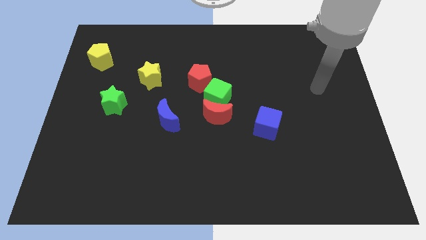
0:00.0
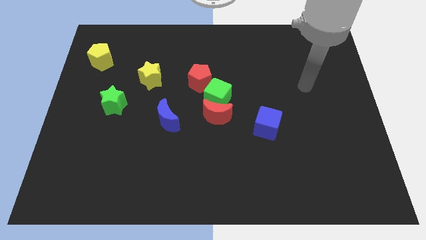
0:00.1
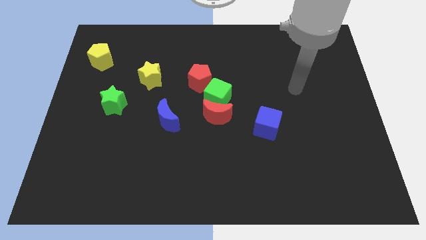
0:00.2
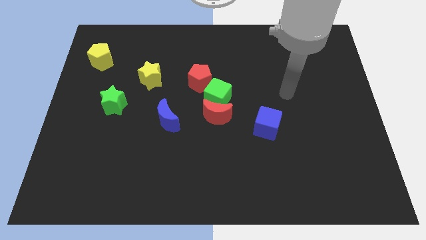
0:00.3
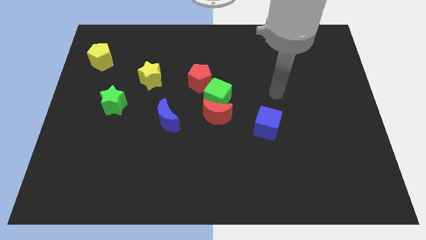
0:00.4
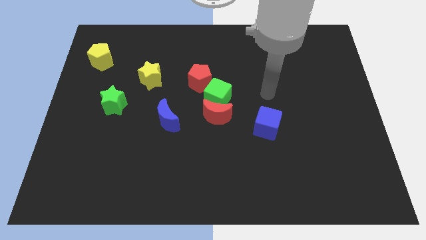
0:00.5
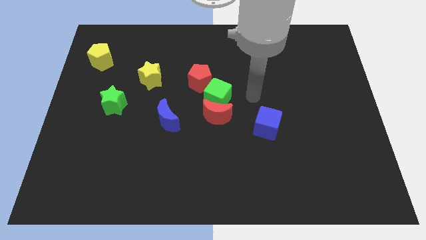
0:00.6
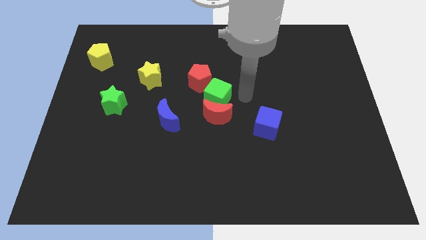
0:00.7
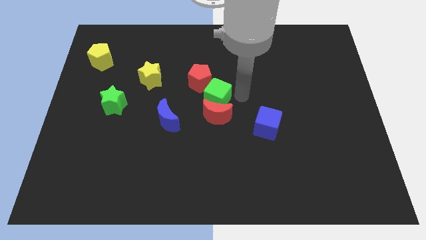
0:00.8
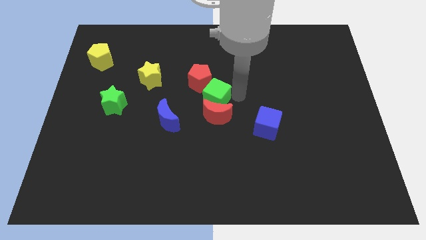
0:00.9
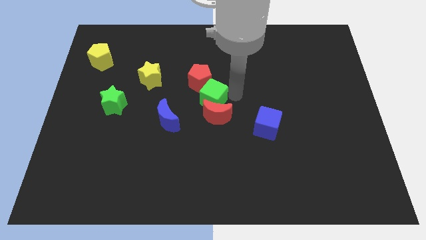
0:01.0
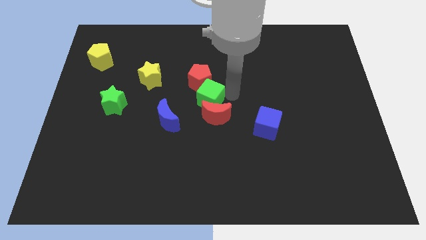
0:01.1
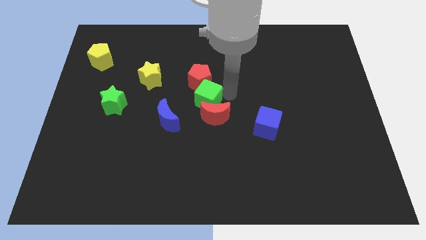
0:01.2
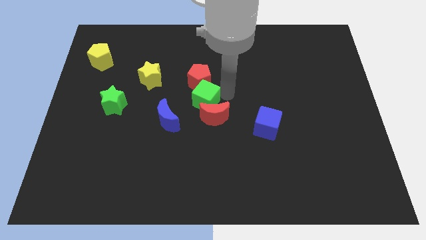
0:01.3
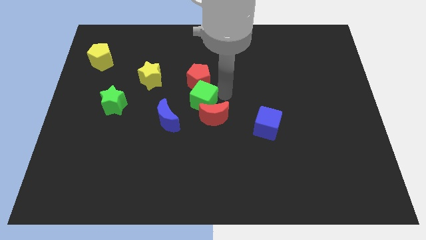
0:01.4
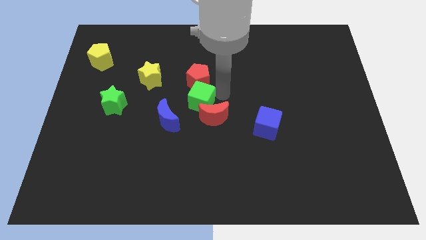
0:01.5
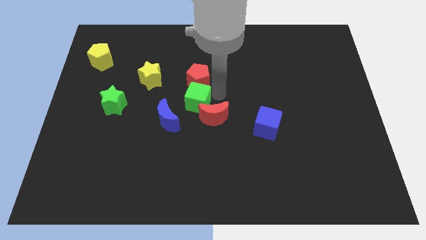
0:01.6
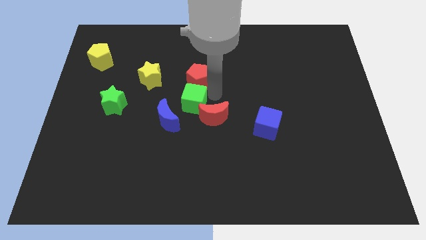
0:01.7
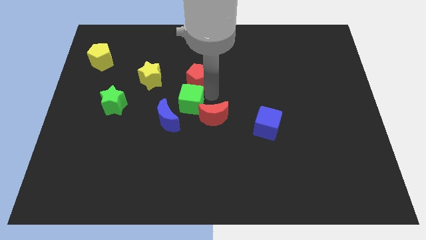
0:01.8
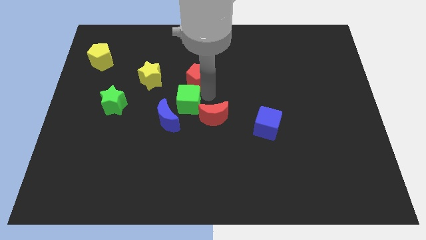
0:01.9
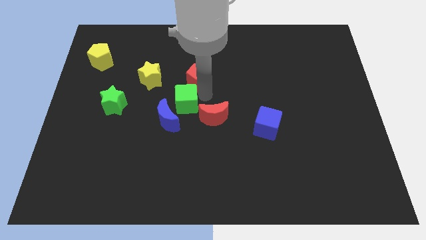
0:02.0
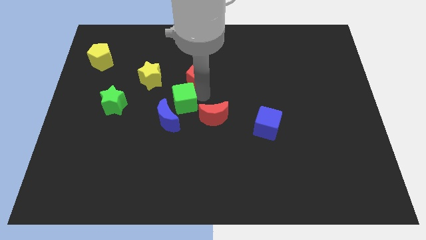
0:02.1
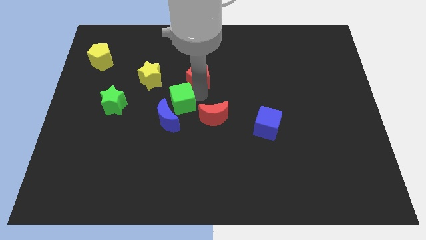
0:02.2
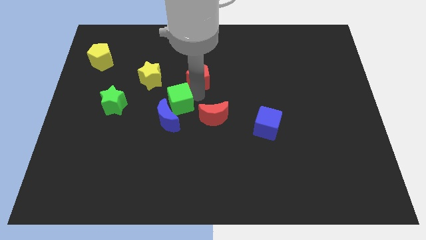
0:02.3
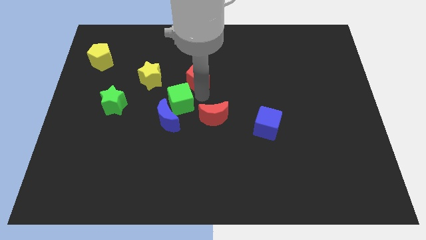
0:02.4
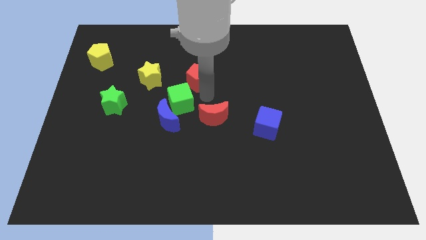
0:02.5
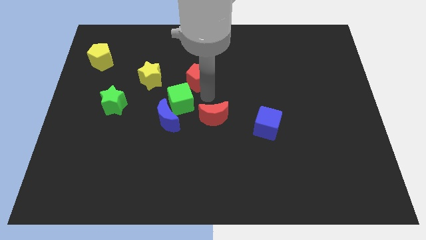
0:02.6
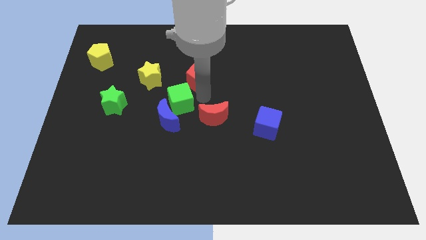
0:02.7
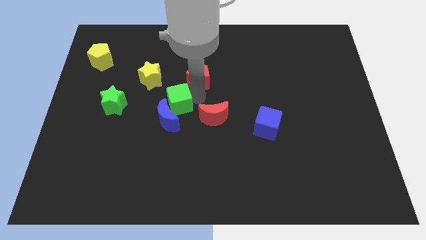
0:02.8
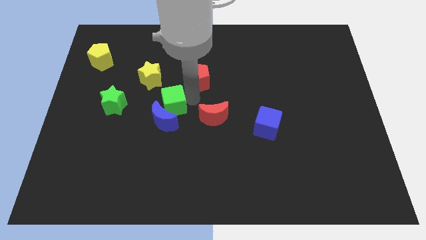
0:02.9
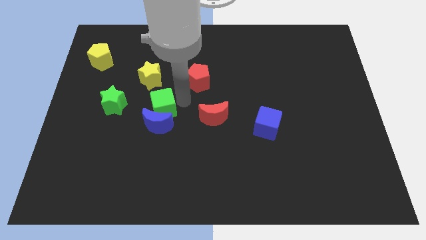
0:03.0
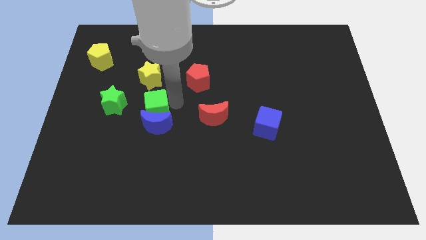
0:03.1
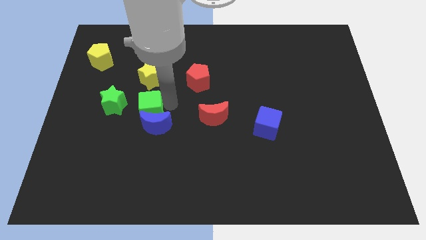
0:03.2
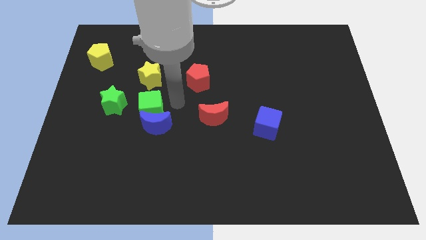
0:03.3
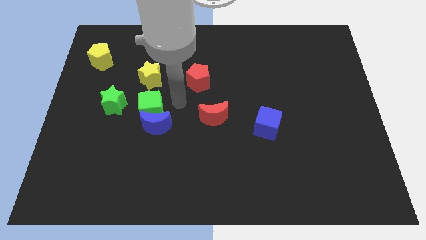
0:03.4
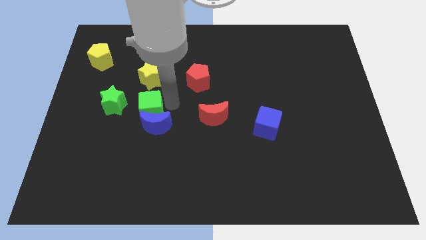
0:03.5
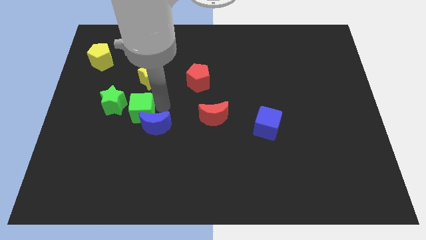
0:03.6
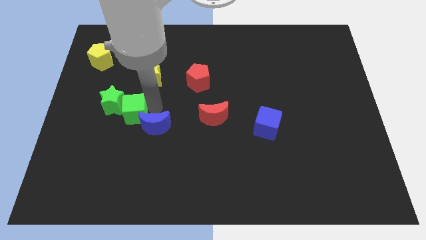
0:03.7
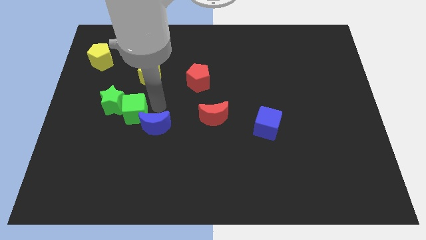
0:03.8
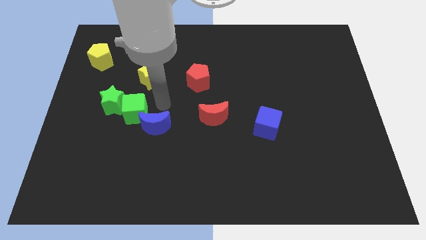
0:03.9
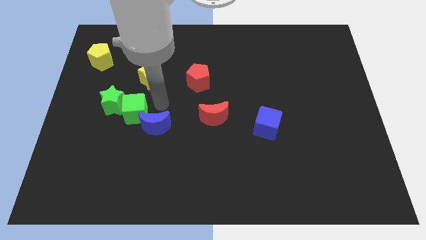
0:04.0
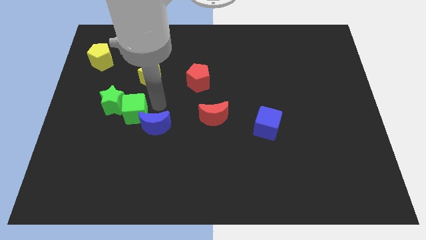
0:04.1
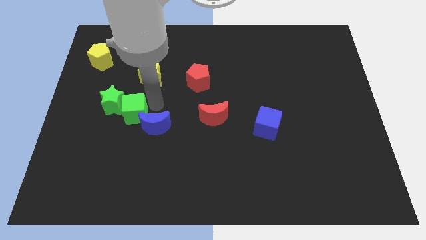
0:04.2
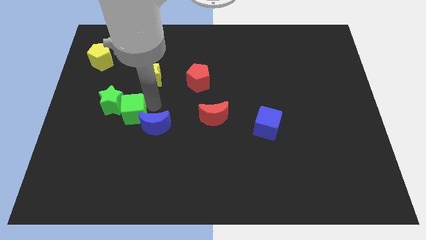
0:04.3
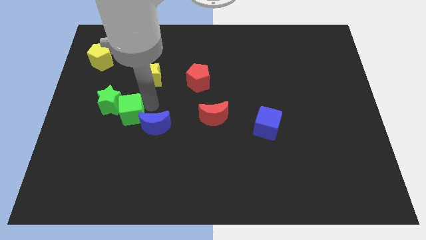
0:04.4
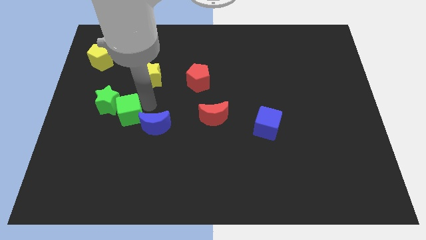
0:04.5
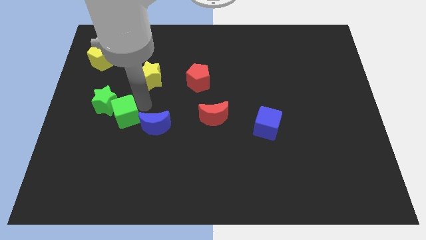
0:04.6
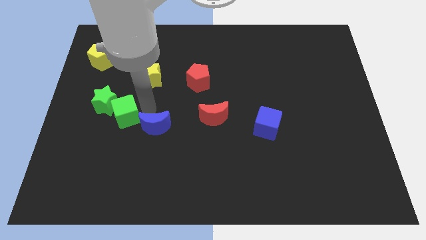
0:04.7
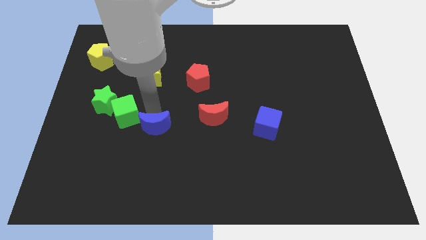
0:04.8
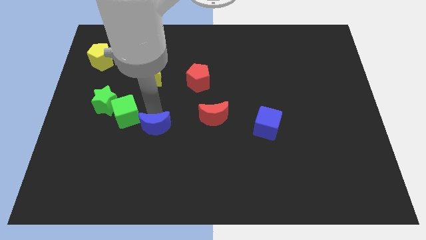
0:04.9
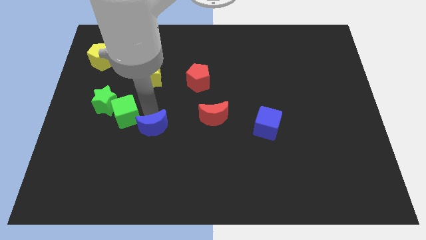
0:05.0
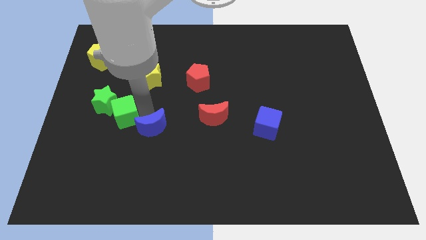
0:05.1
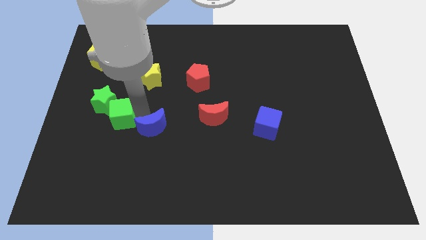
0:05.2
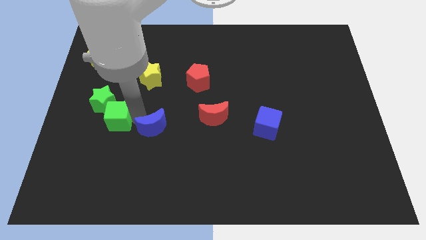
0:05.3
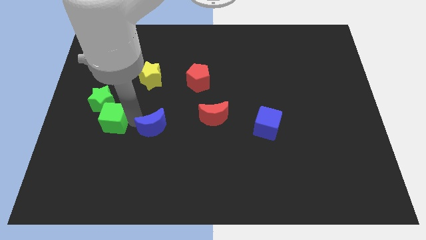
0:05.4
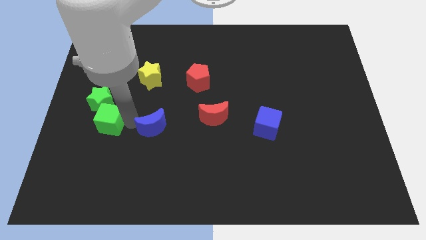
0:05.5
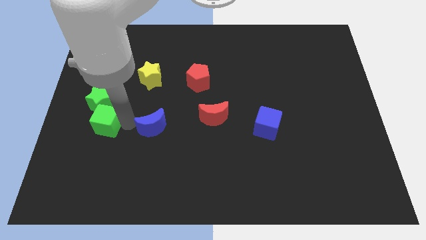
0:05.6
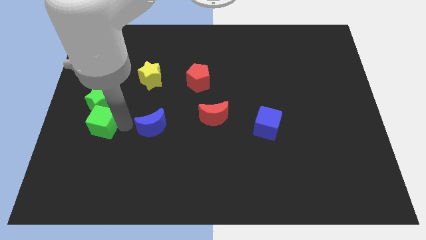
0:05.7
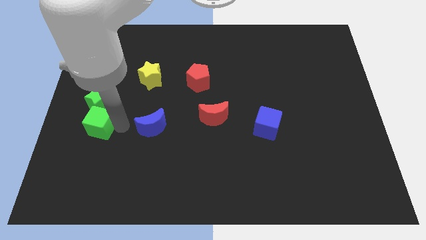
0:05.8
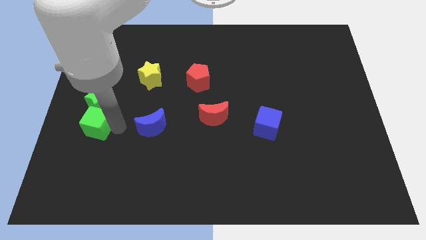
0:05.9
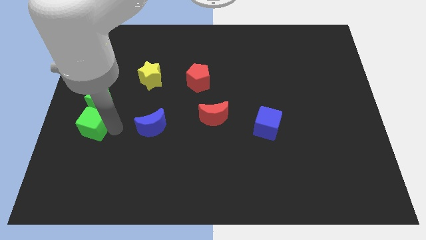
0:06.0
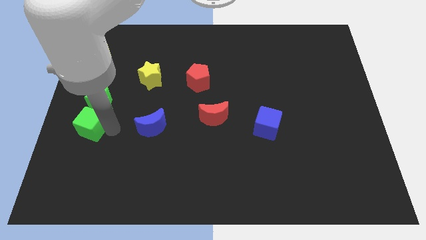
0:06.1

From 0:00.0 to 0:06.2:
slide the green cube to the center left

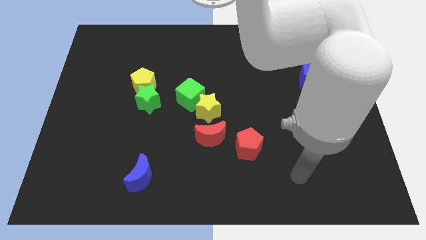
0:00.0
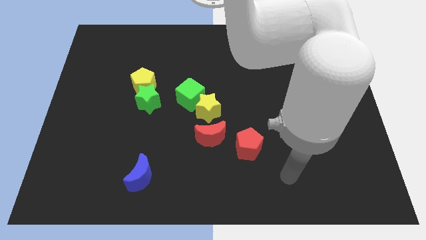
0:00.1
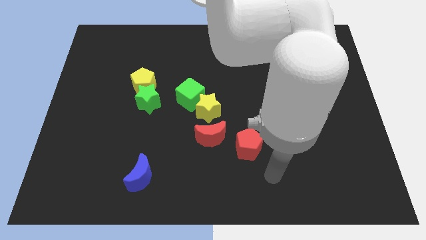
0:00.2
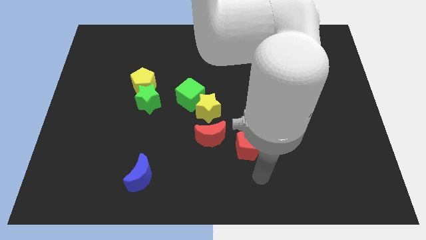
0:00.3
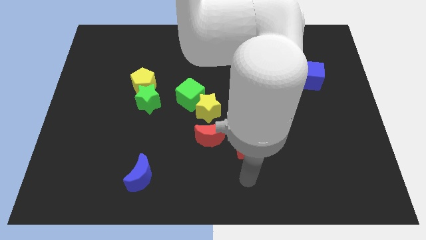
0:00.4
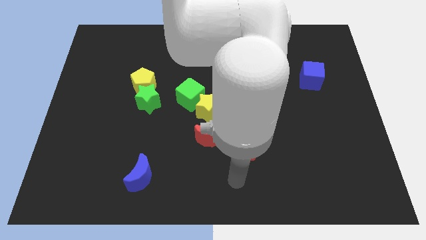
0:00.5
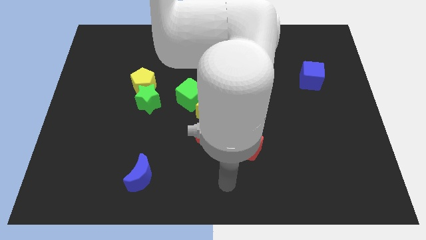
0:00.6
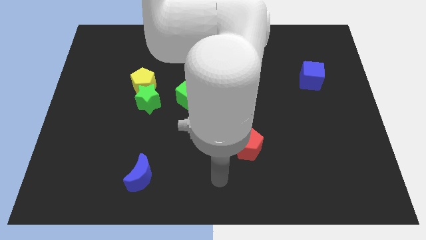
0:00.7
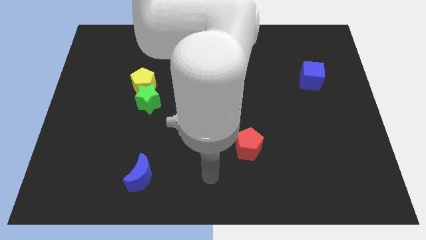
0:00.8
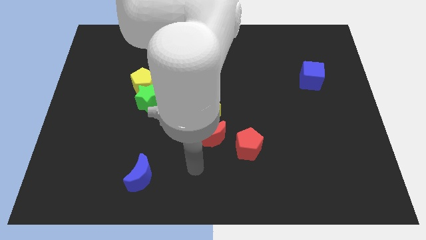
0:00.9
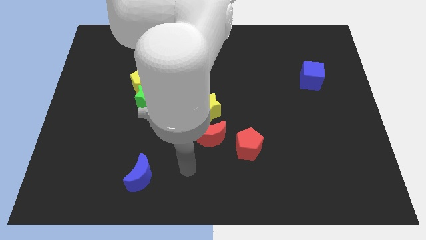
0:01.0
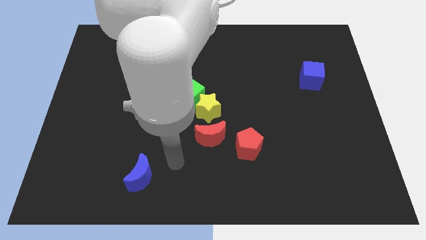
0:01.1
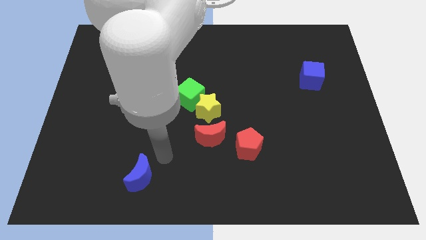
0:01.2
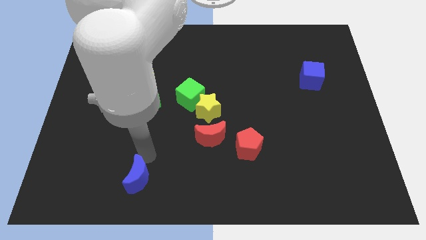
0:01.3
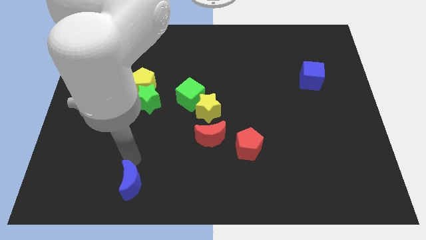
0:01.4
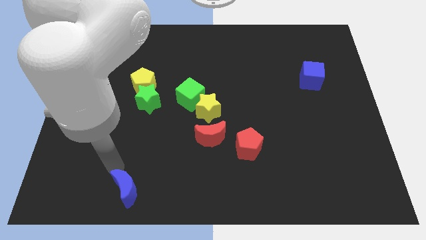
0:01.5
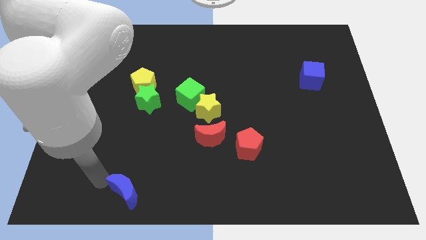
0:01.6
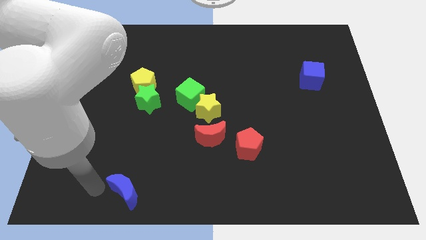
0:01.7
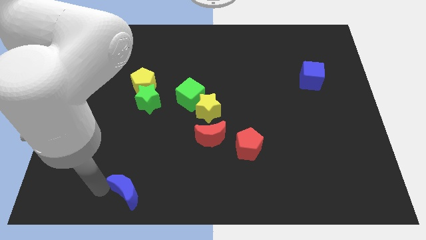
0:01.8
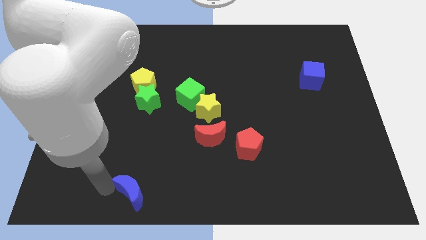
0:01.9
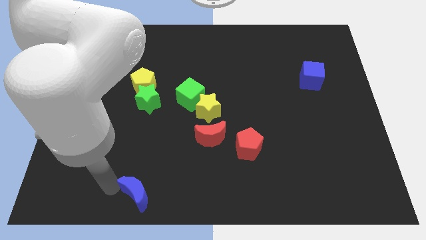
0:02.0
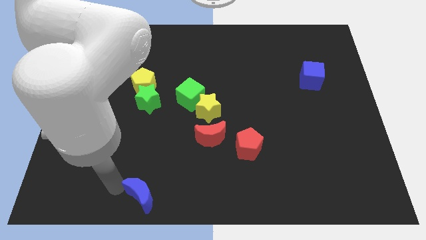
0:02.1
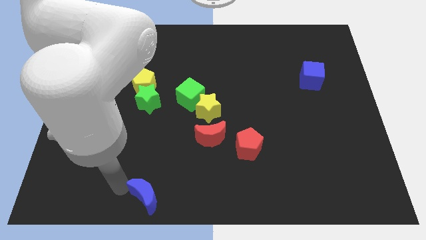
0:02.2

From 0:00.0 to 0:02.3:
put the blue moon to the bottom side
